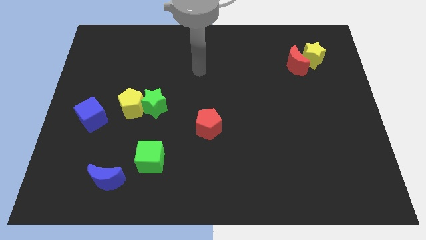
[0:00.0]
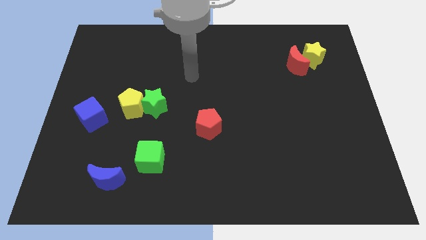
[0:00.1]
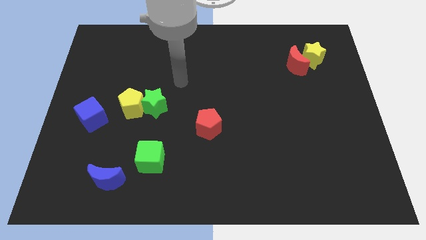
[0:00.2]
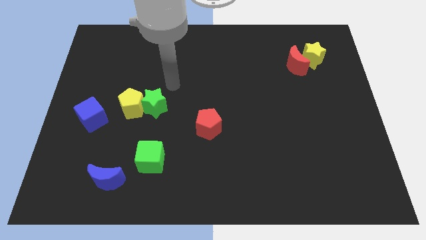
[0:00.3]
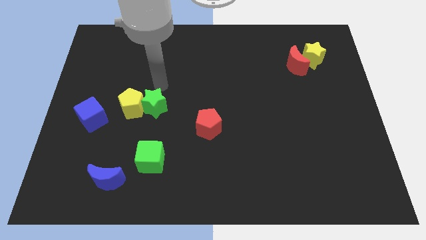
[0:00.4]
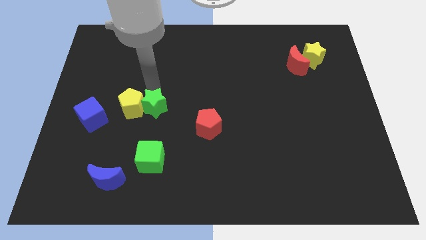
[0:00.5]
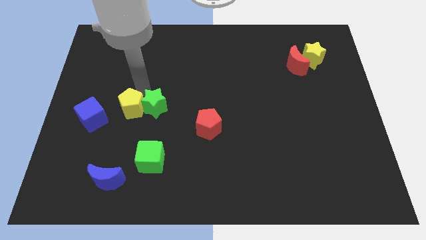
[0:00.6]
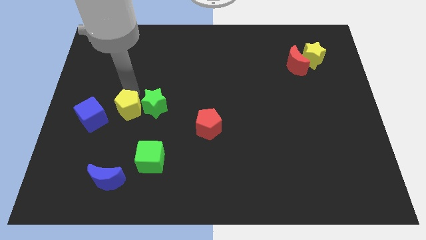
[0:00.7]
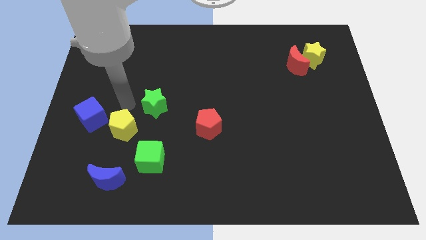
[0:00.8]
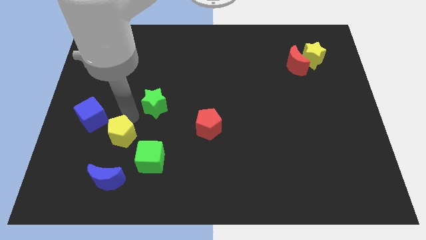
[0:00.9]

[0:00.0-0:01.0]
move the green star away from the yellow pentagon

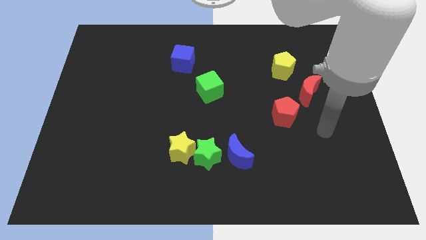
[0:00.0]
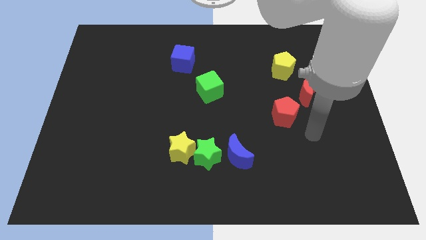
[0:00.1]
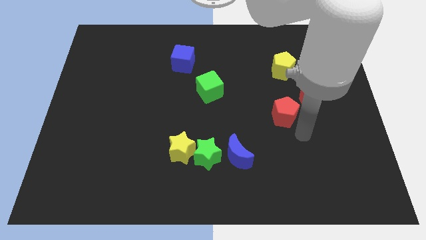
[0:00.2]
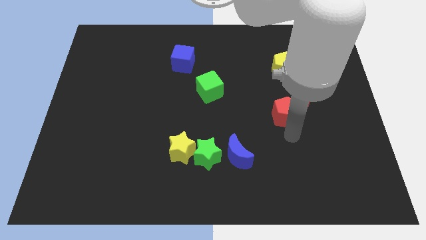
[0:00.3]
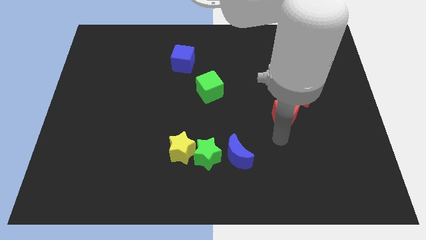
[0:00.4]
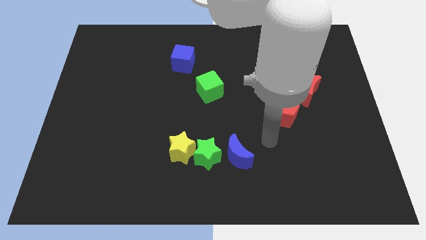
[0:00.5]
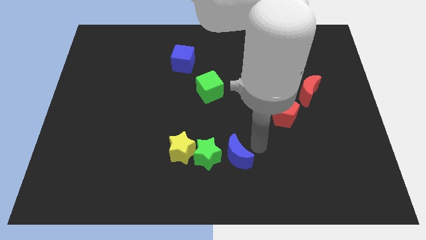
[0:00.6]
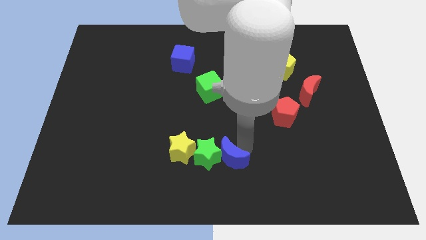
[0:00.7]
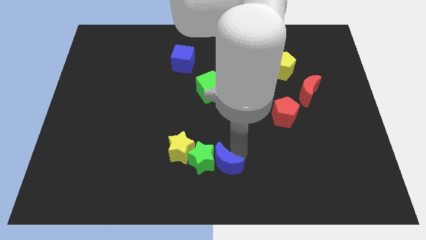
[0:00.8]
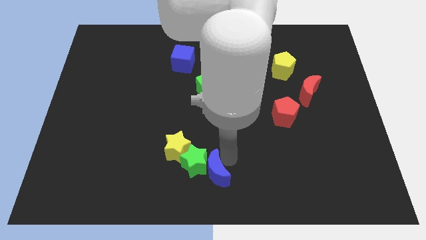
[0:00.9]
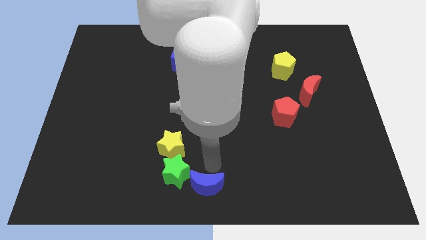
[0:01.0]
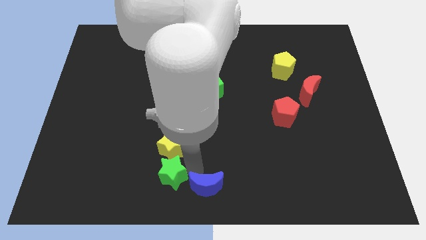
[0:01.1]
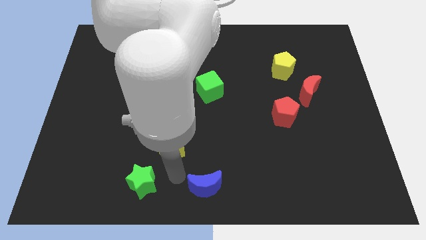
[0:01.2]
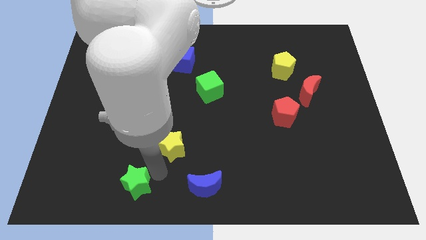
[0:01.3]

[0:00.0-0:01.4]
move the yellow star away from the green star

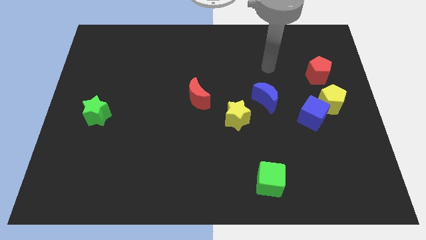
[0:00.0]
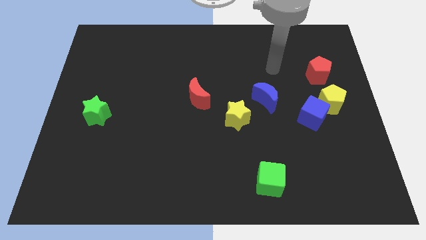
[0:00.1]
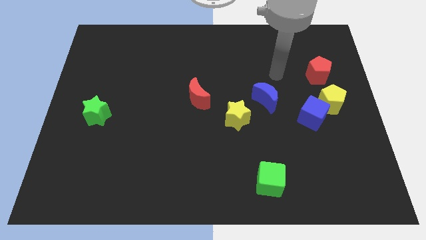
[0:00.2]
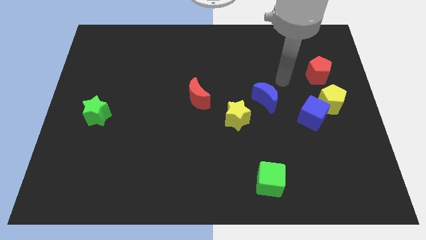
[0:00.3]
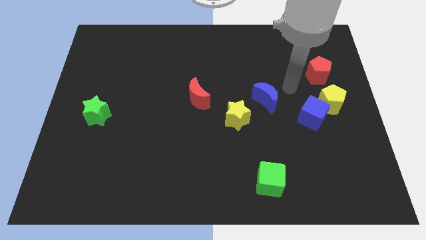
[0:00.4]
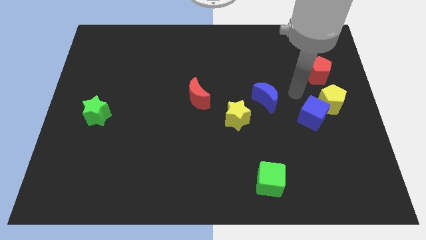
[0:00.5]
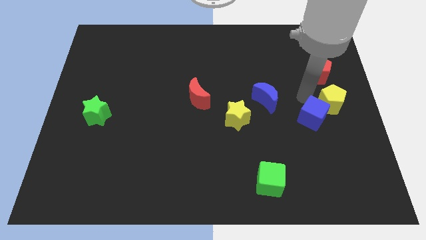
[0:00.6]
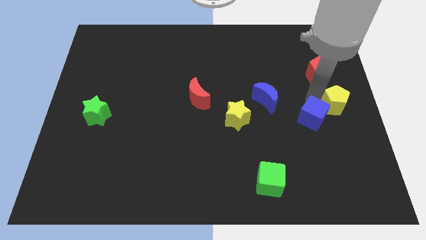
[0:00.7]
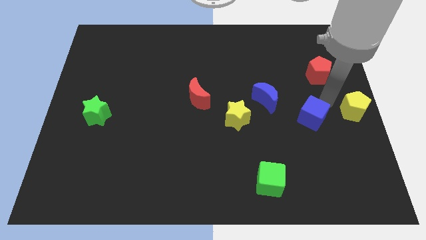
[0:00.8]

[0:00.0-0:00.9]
pull the blue cube apart from the yellow pentagon

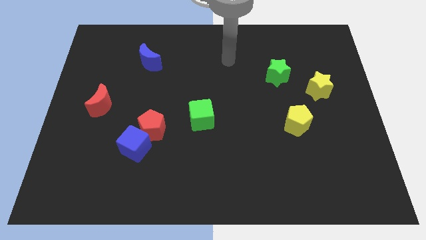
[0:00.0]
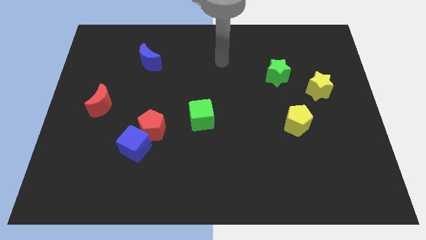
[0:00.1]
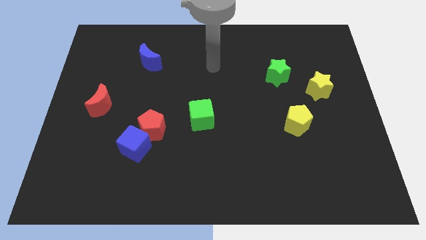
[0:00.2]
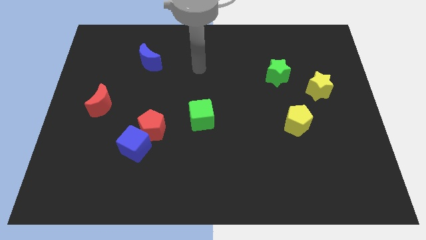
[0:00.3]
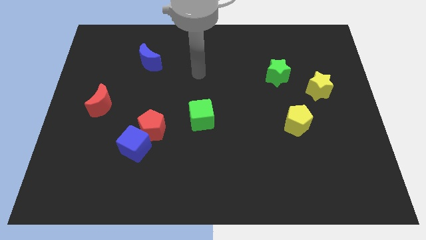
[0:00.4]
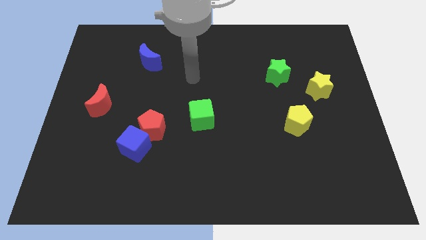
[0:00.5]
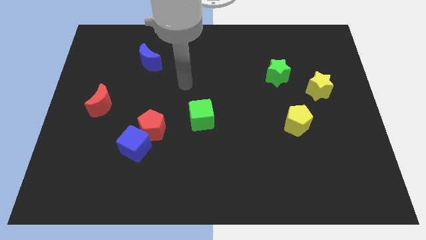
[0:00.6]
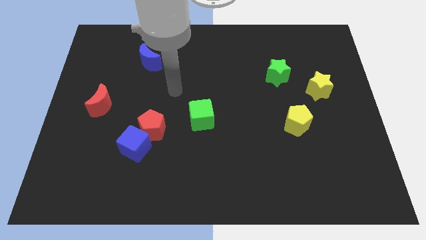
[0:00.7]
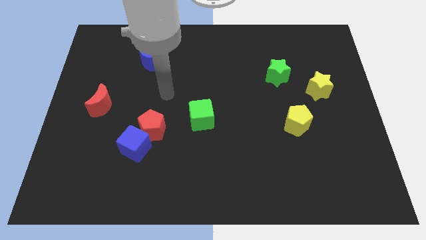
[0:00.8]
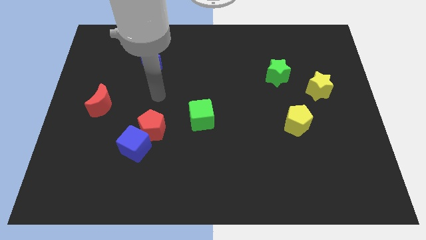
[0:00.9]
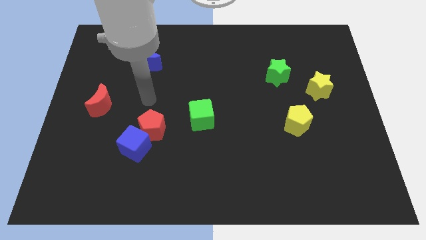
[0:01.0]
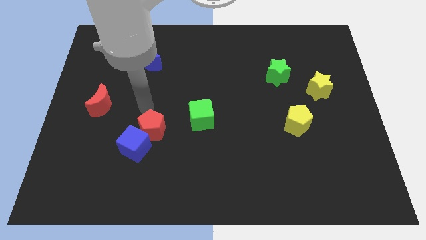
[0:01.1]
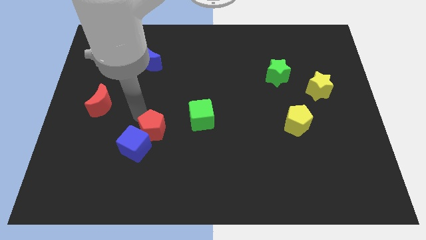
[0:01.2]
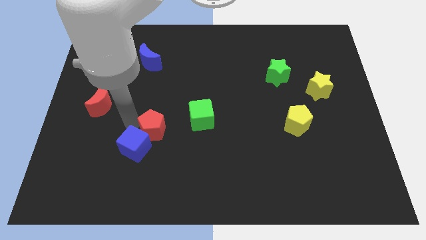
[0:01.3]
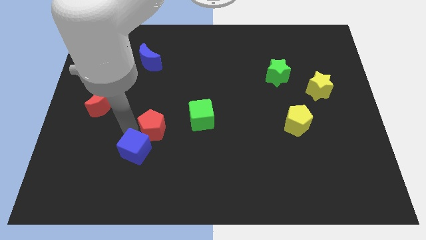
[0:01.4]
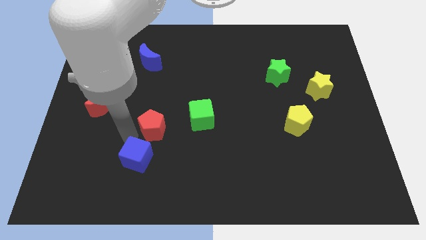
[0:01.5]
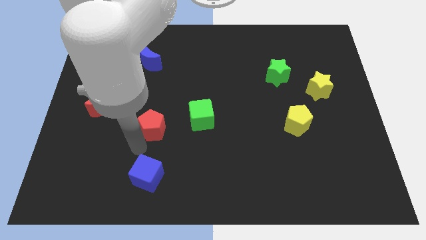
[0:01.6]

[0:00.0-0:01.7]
move the red pentagon away from the blue cube

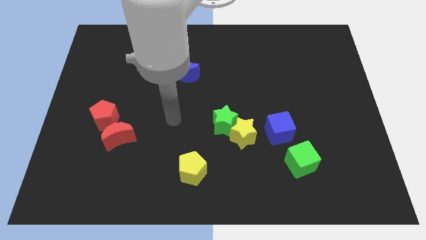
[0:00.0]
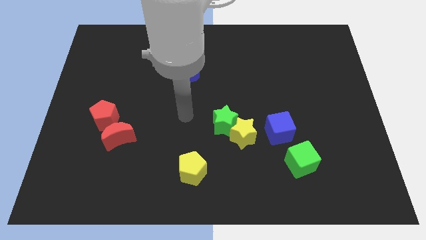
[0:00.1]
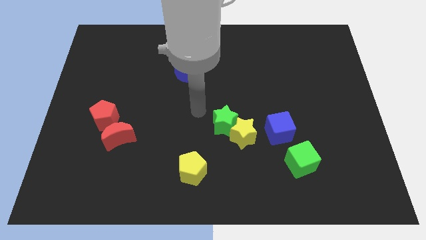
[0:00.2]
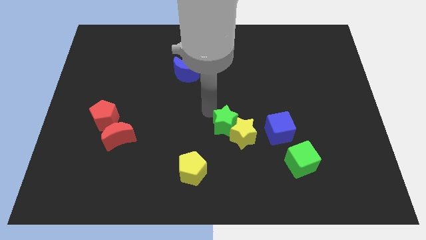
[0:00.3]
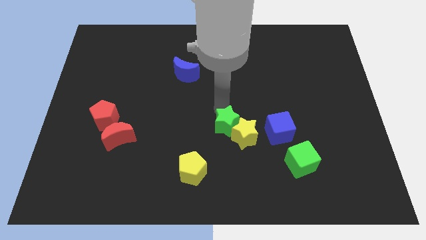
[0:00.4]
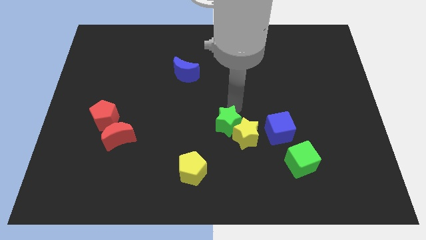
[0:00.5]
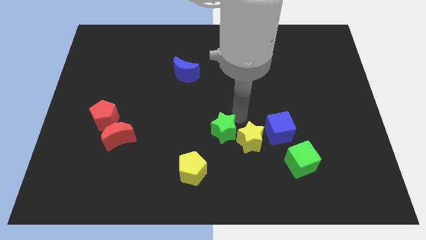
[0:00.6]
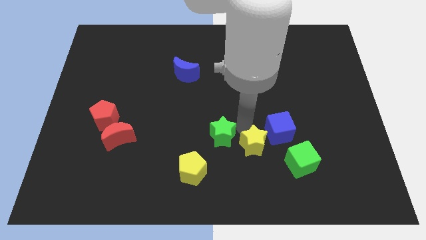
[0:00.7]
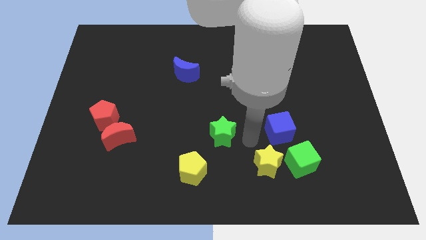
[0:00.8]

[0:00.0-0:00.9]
move the green star away from the yellow star

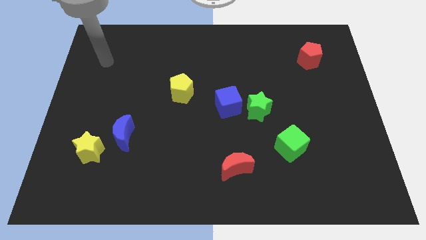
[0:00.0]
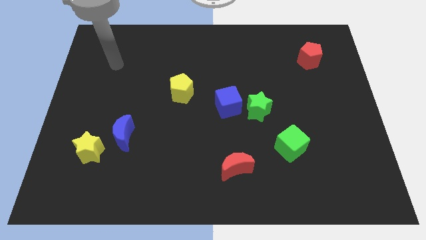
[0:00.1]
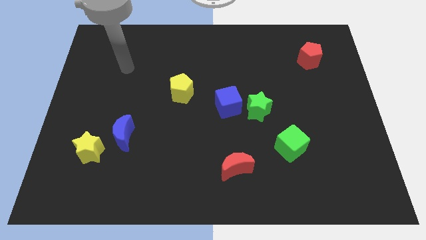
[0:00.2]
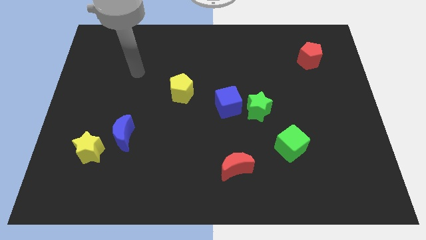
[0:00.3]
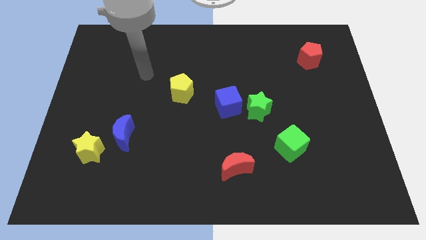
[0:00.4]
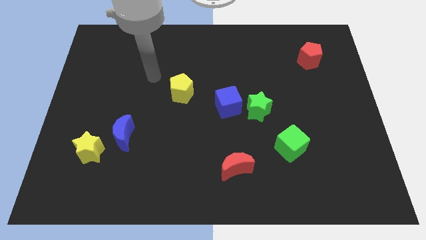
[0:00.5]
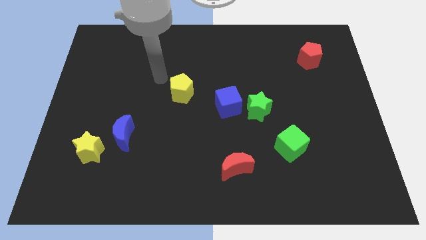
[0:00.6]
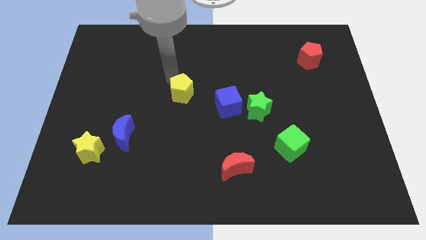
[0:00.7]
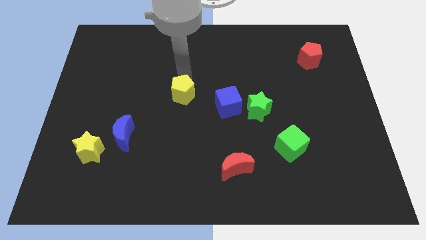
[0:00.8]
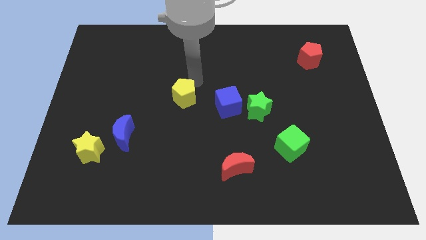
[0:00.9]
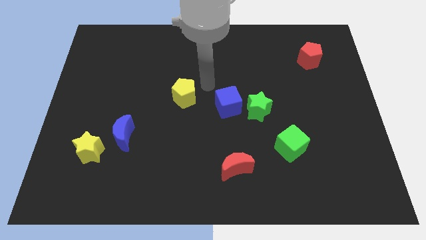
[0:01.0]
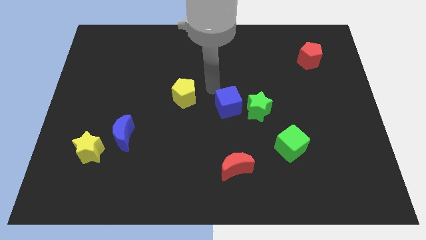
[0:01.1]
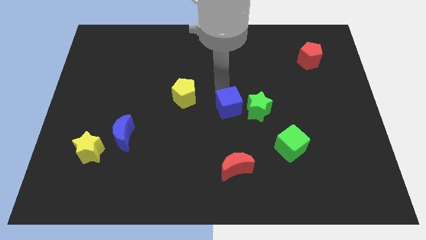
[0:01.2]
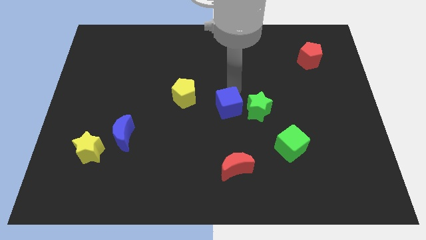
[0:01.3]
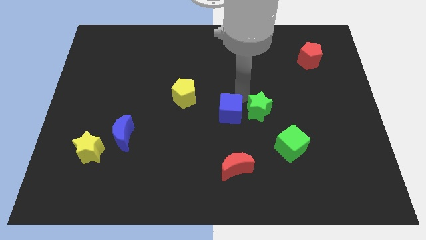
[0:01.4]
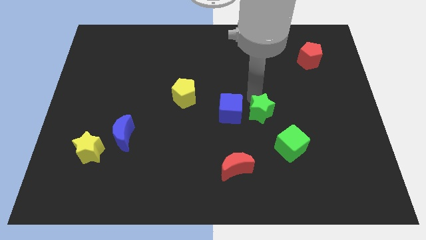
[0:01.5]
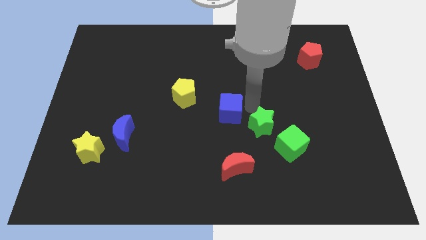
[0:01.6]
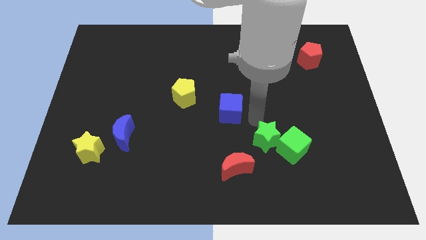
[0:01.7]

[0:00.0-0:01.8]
pull the blue cube apart from the green star

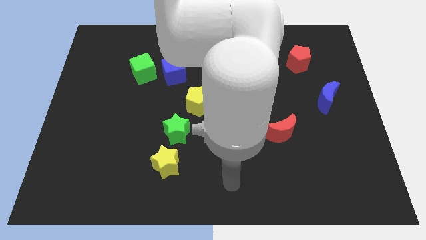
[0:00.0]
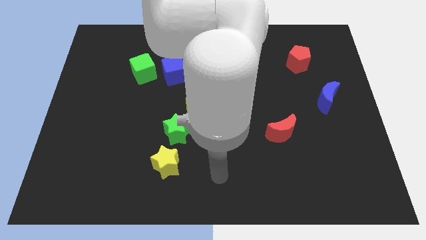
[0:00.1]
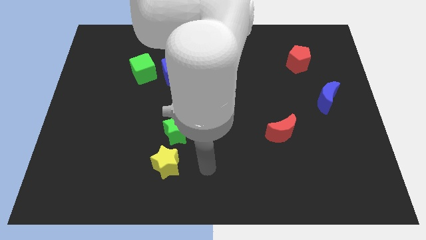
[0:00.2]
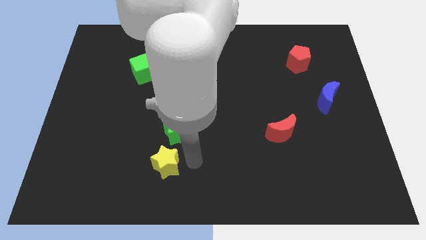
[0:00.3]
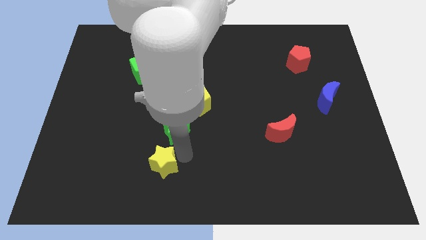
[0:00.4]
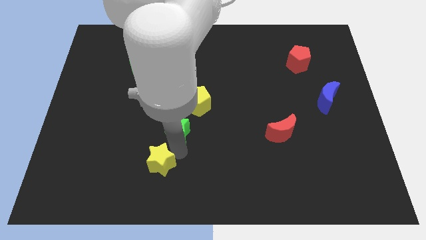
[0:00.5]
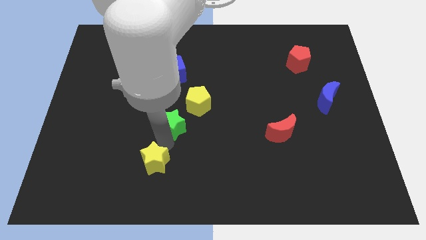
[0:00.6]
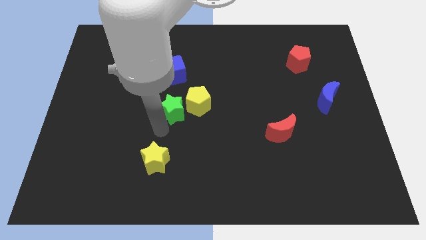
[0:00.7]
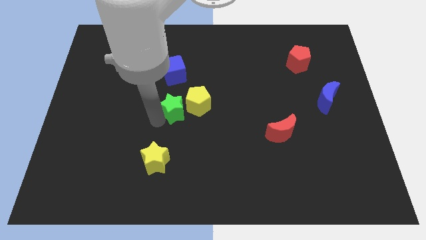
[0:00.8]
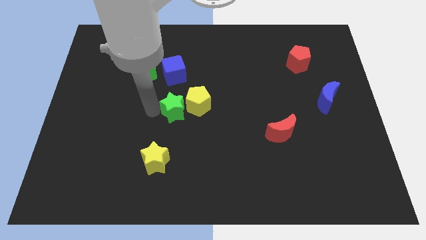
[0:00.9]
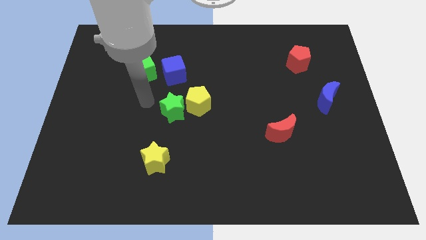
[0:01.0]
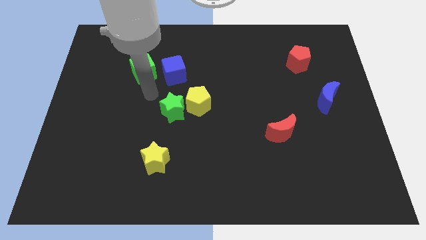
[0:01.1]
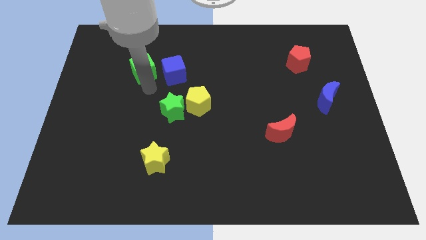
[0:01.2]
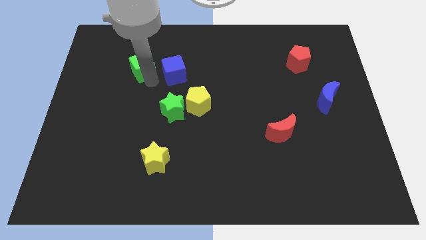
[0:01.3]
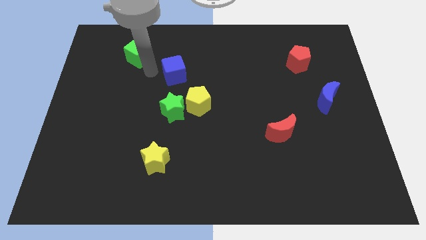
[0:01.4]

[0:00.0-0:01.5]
pull the blue cube apart from the green cube
